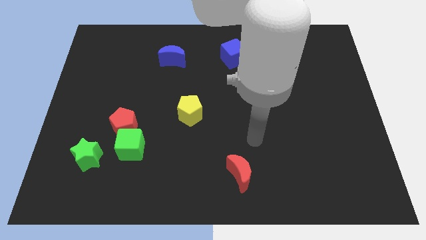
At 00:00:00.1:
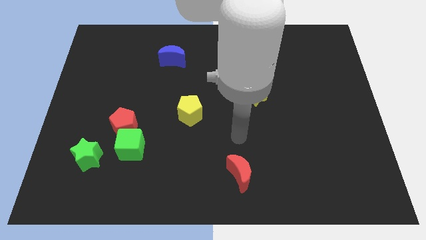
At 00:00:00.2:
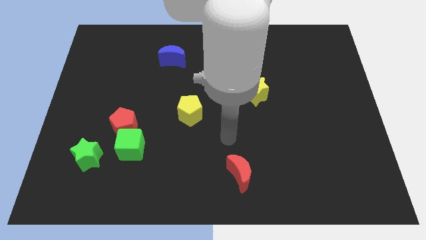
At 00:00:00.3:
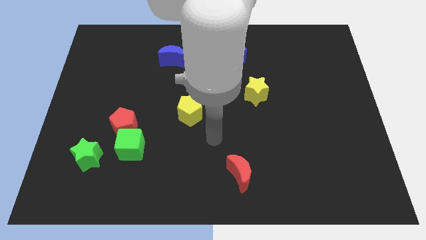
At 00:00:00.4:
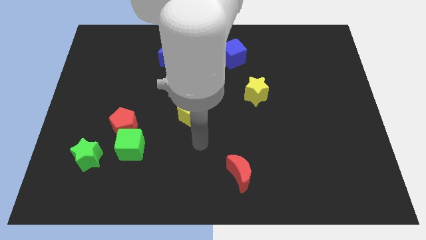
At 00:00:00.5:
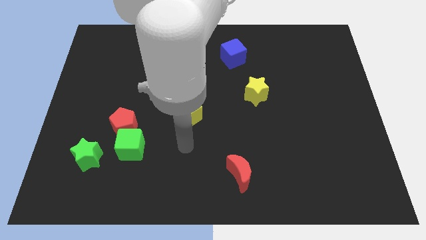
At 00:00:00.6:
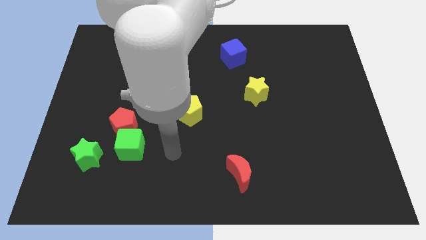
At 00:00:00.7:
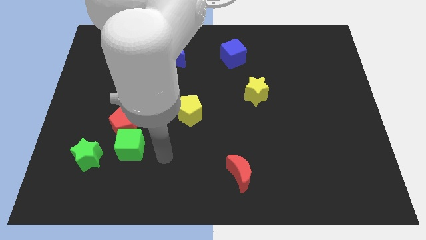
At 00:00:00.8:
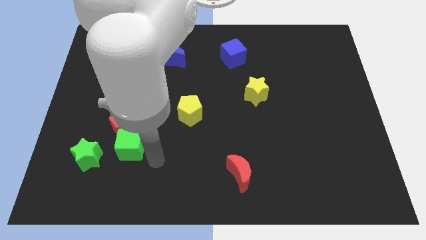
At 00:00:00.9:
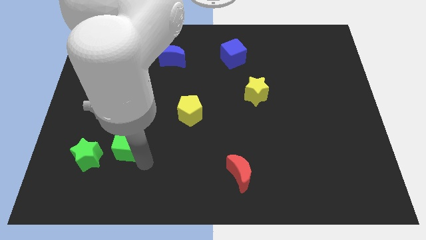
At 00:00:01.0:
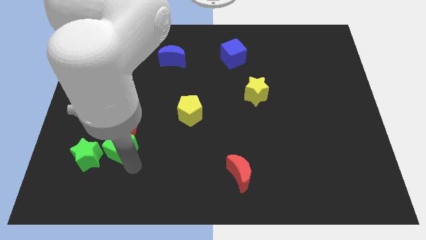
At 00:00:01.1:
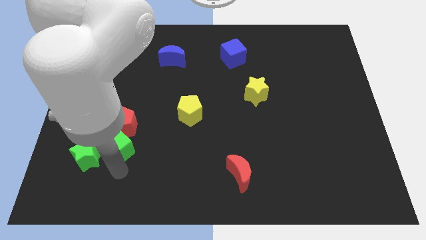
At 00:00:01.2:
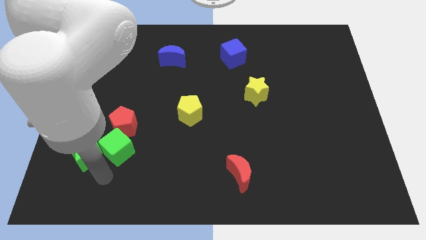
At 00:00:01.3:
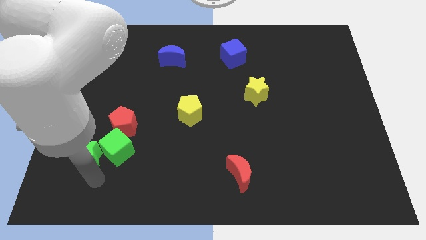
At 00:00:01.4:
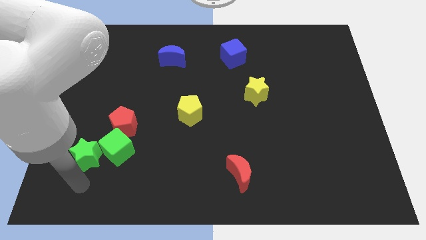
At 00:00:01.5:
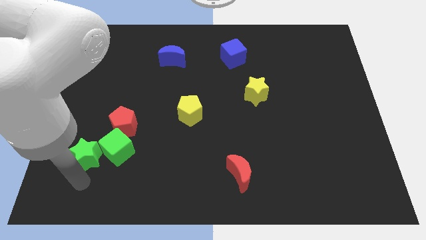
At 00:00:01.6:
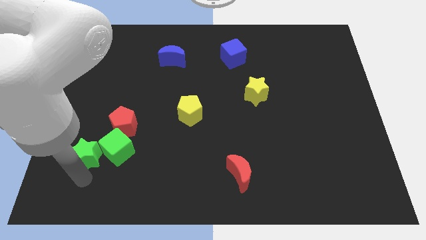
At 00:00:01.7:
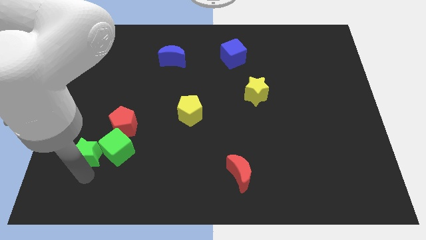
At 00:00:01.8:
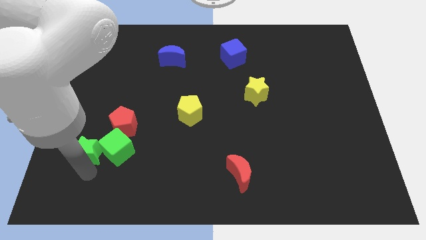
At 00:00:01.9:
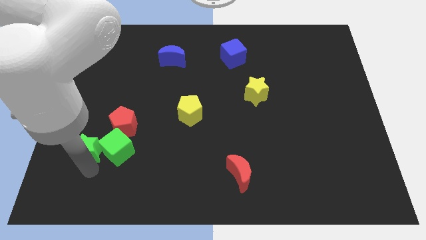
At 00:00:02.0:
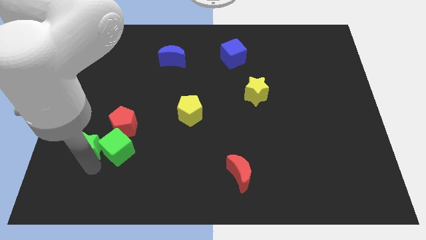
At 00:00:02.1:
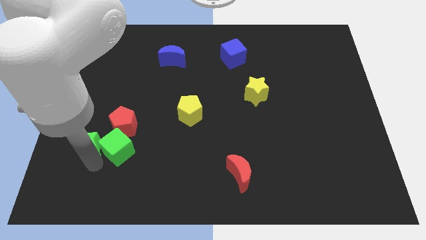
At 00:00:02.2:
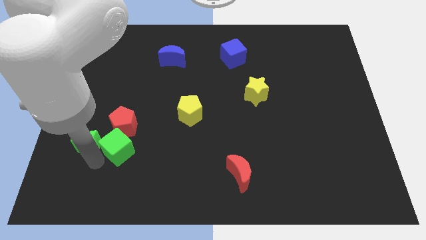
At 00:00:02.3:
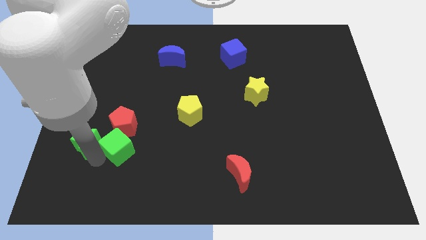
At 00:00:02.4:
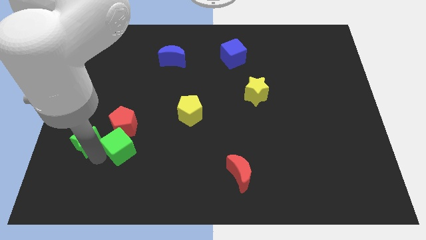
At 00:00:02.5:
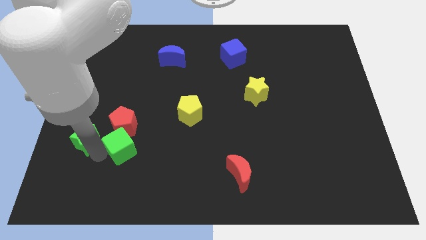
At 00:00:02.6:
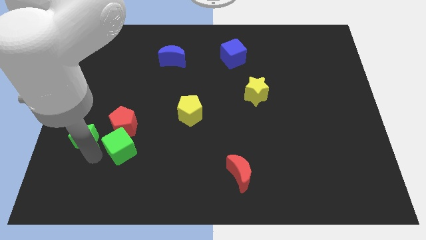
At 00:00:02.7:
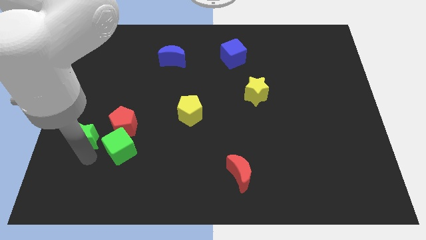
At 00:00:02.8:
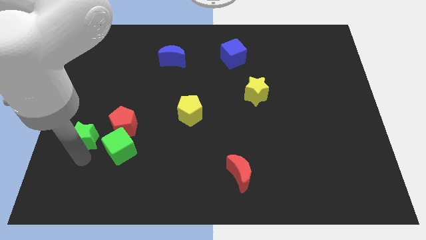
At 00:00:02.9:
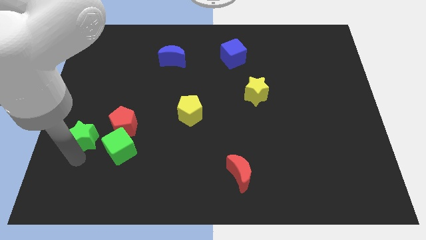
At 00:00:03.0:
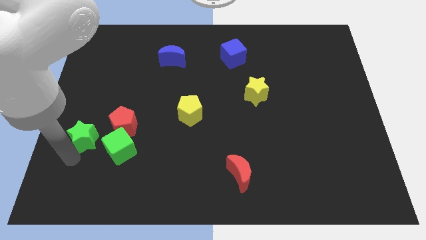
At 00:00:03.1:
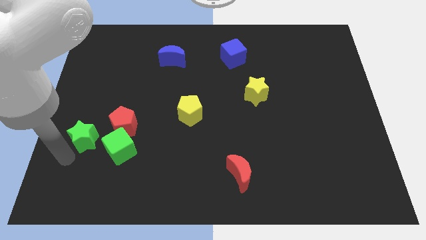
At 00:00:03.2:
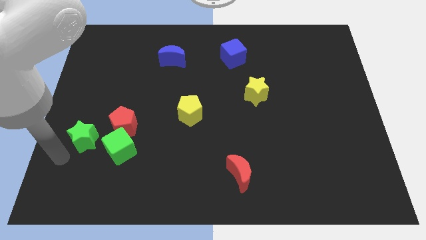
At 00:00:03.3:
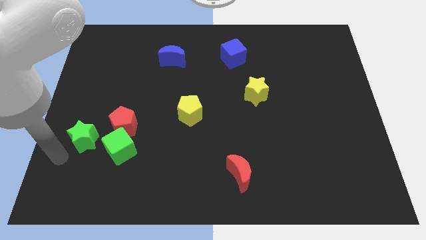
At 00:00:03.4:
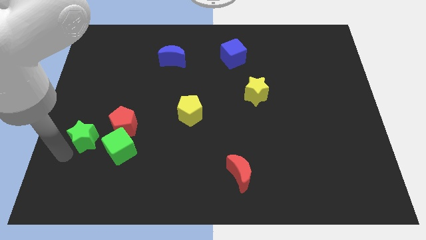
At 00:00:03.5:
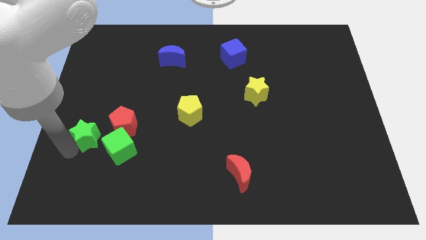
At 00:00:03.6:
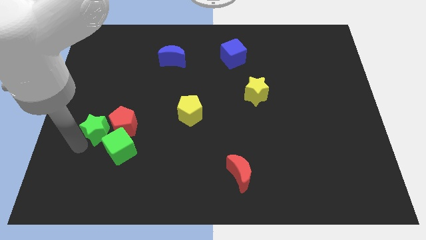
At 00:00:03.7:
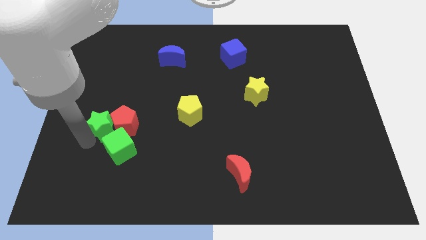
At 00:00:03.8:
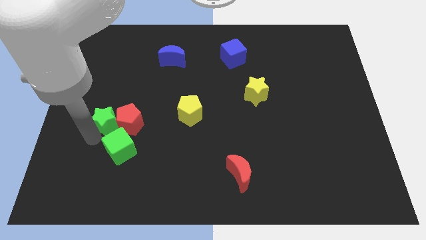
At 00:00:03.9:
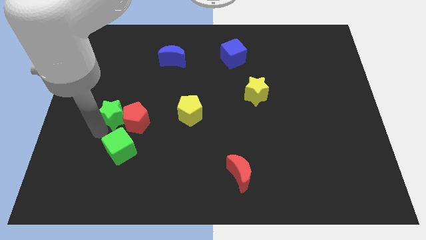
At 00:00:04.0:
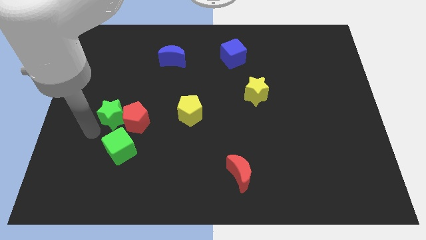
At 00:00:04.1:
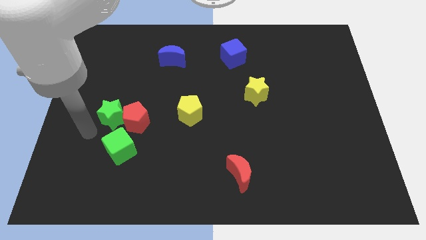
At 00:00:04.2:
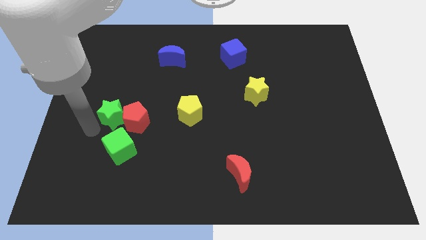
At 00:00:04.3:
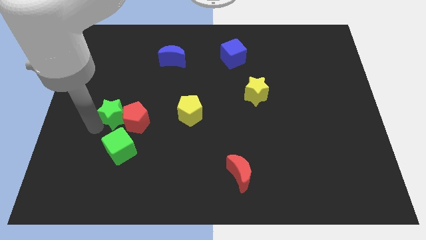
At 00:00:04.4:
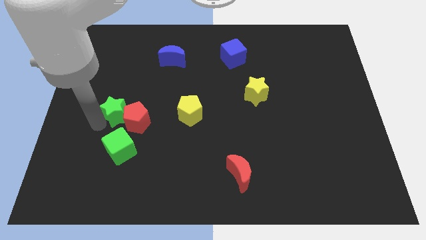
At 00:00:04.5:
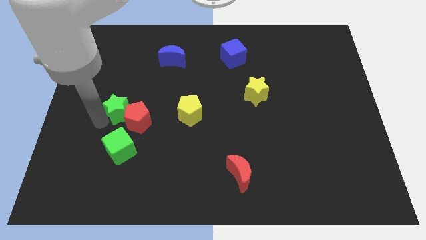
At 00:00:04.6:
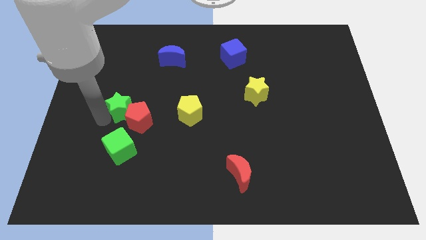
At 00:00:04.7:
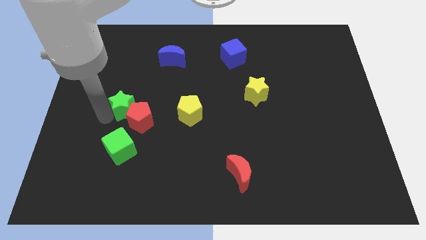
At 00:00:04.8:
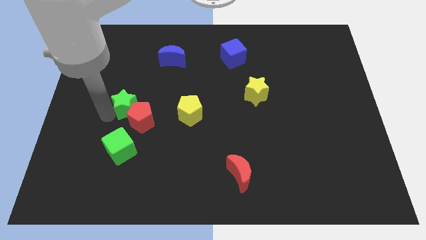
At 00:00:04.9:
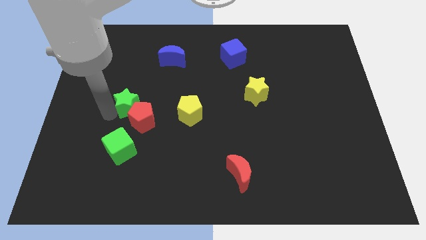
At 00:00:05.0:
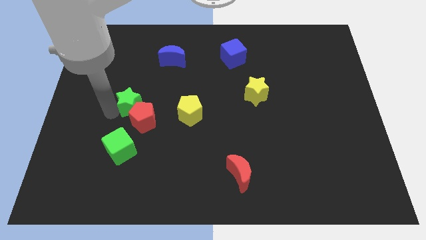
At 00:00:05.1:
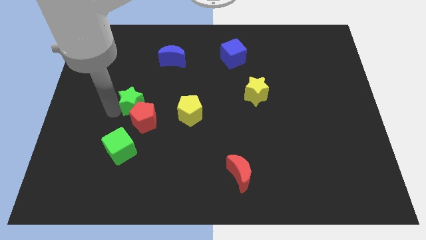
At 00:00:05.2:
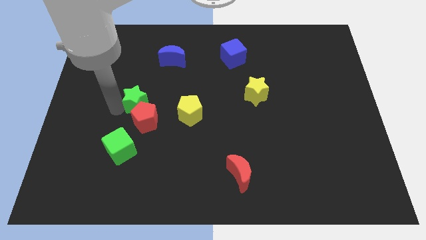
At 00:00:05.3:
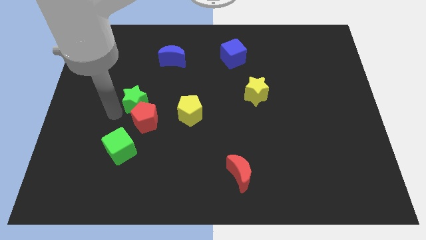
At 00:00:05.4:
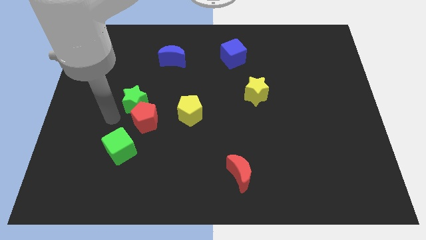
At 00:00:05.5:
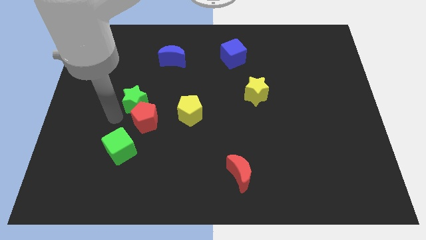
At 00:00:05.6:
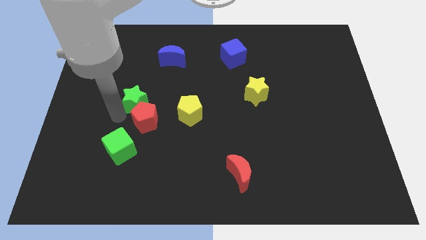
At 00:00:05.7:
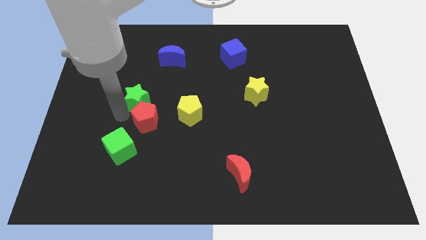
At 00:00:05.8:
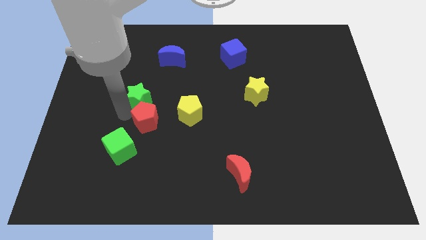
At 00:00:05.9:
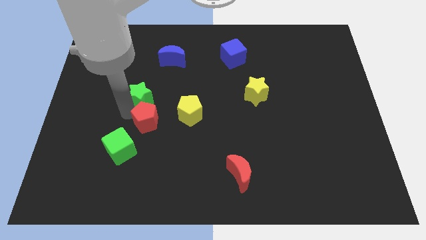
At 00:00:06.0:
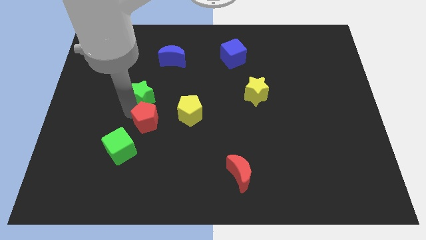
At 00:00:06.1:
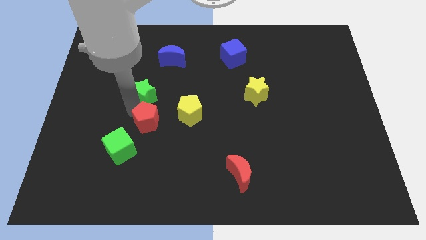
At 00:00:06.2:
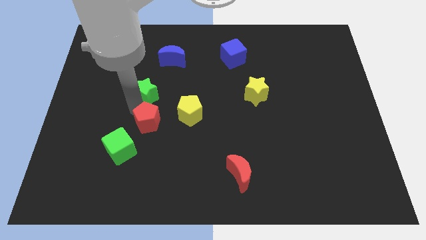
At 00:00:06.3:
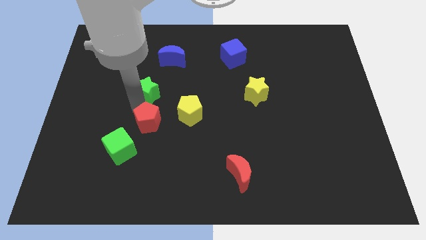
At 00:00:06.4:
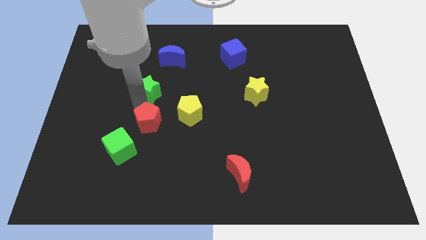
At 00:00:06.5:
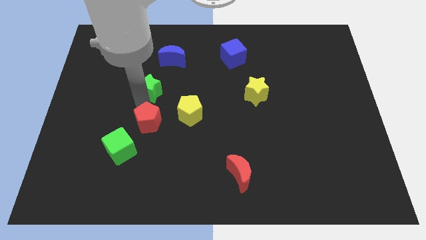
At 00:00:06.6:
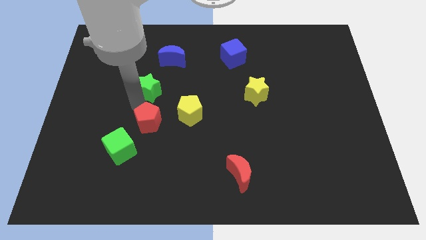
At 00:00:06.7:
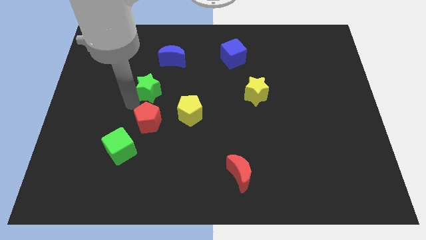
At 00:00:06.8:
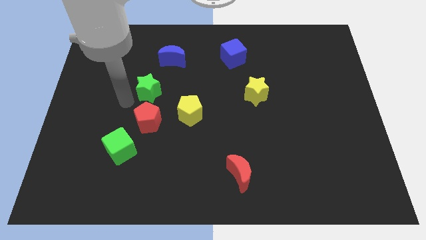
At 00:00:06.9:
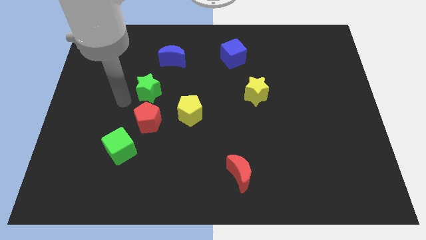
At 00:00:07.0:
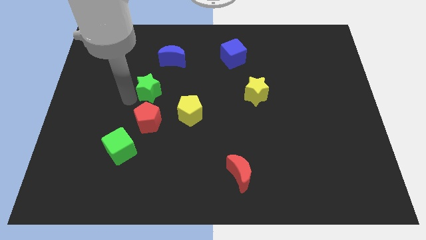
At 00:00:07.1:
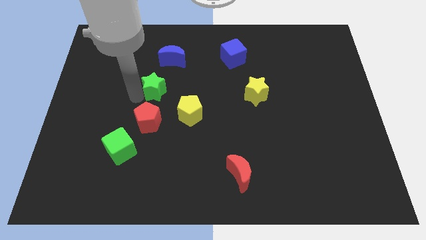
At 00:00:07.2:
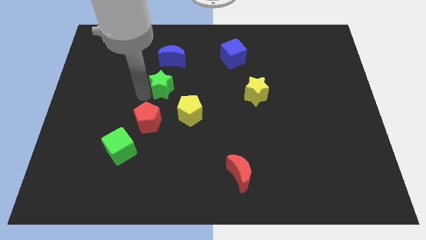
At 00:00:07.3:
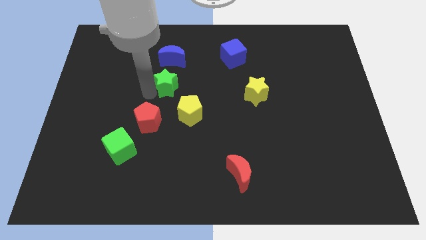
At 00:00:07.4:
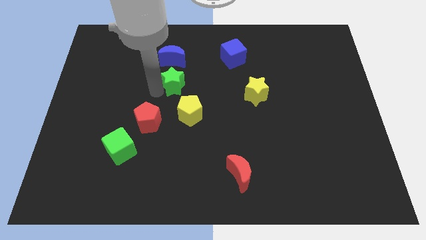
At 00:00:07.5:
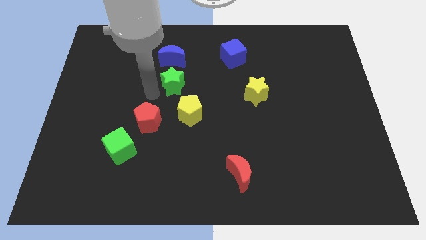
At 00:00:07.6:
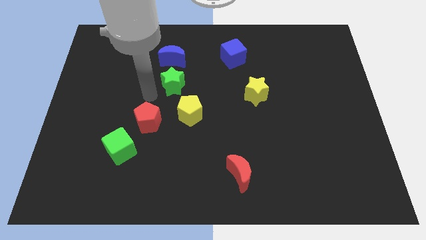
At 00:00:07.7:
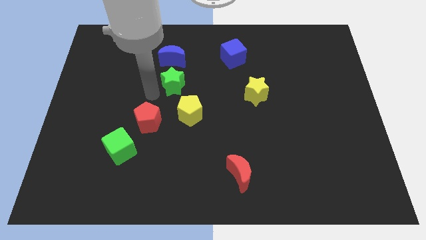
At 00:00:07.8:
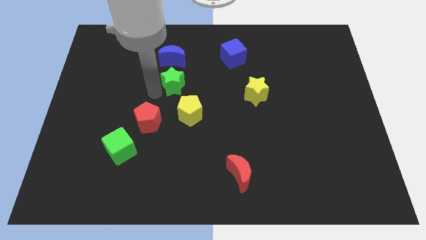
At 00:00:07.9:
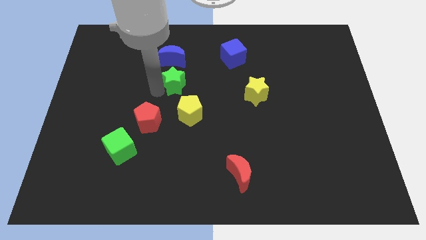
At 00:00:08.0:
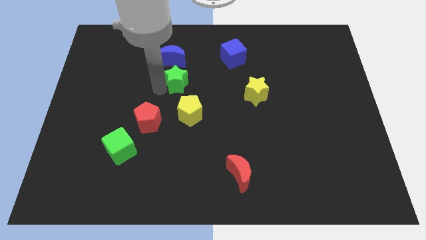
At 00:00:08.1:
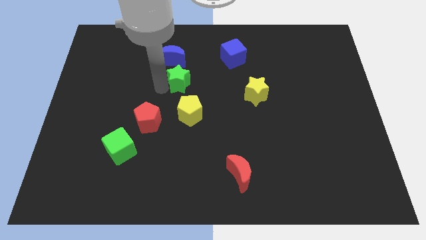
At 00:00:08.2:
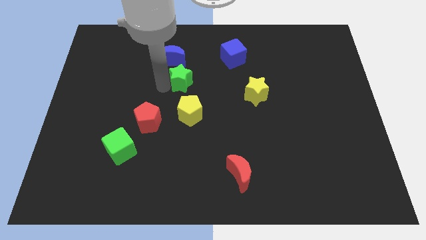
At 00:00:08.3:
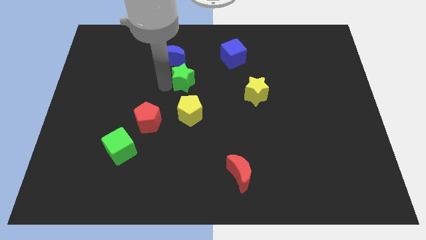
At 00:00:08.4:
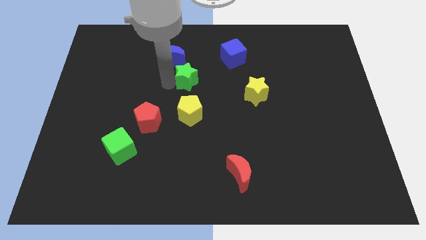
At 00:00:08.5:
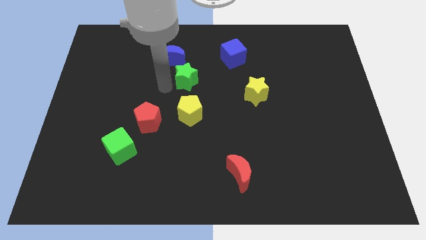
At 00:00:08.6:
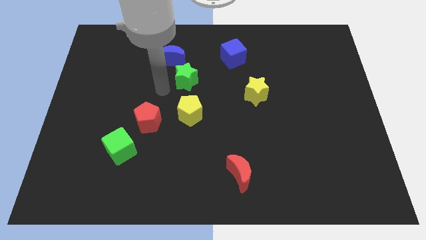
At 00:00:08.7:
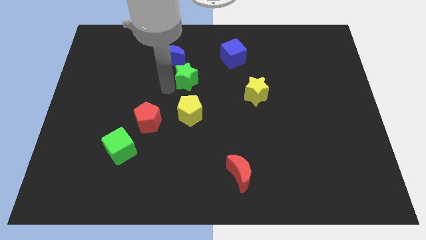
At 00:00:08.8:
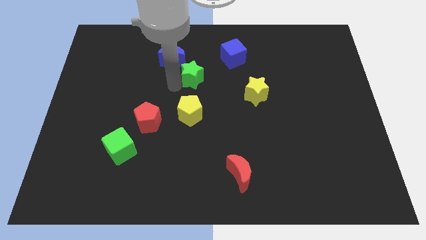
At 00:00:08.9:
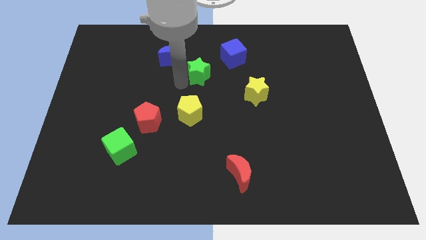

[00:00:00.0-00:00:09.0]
slide the green star to the bottom left side of the blue cube
